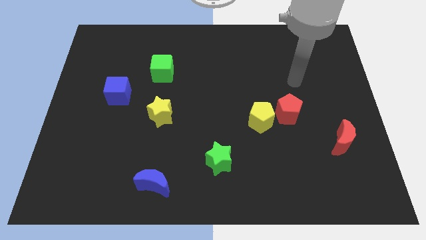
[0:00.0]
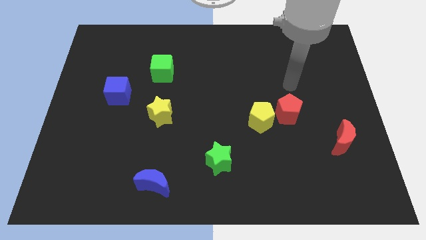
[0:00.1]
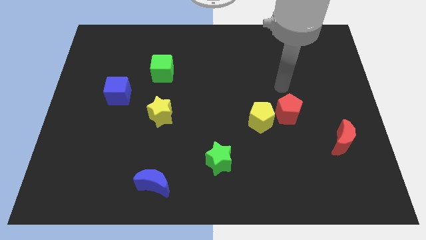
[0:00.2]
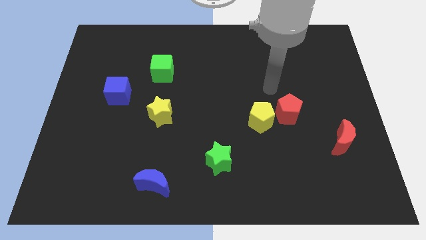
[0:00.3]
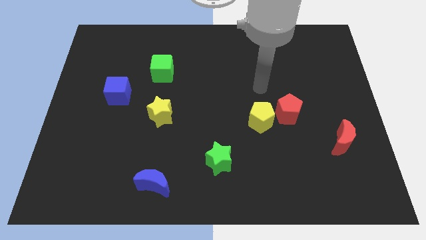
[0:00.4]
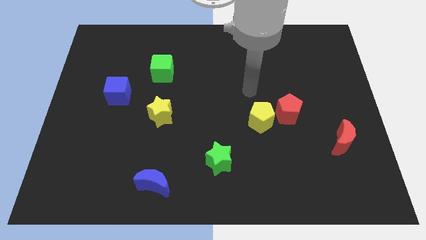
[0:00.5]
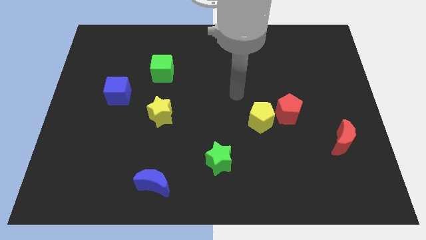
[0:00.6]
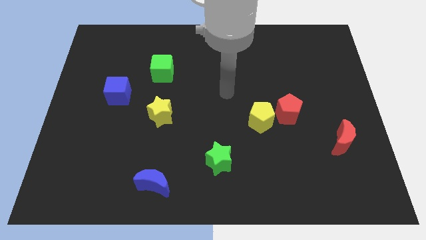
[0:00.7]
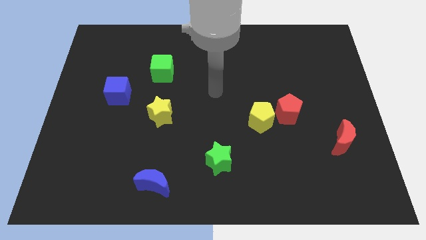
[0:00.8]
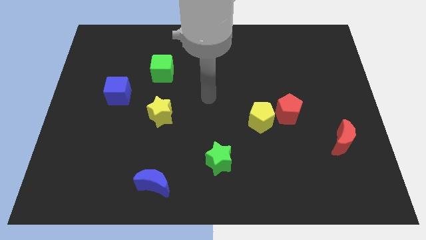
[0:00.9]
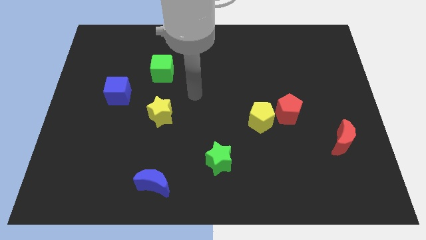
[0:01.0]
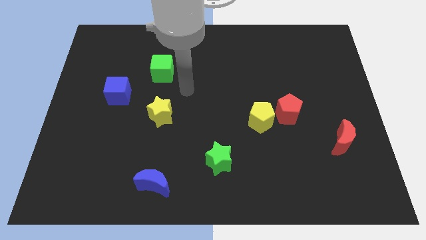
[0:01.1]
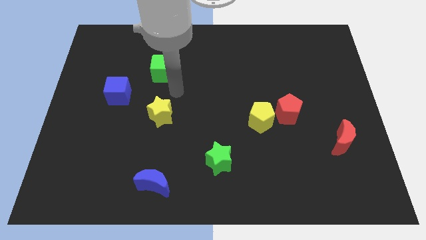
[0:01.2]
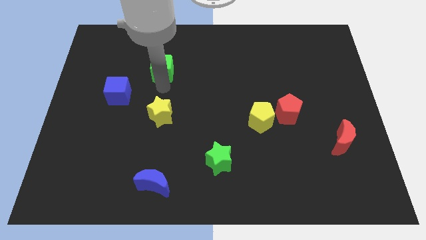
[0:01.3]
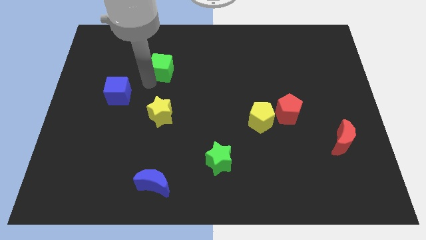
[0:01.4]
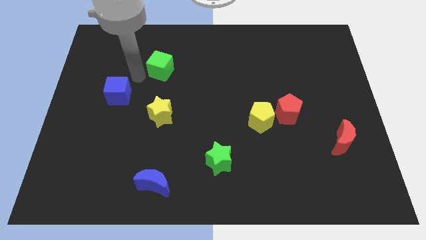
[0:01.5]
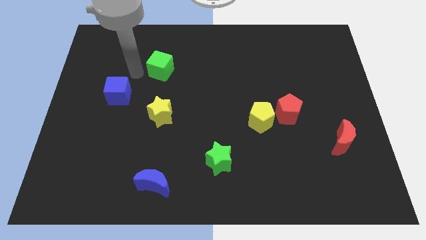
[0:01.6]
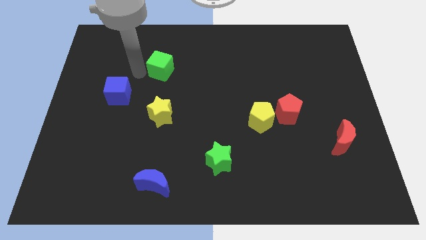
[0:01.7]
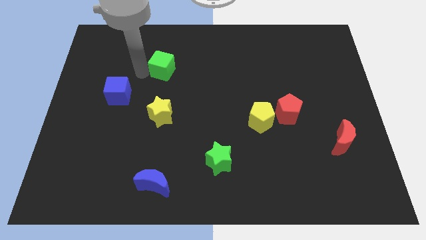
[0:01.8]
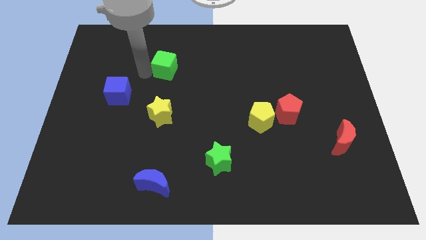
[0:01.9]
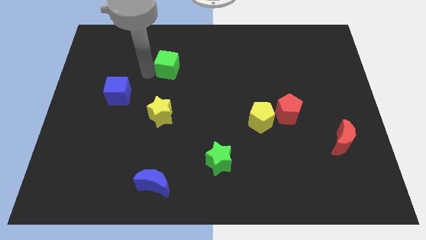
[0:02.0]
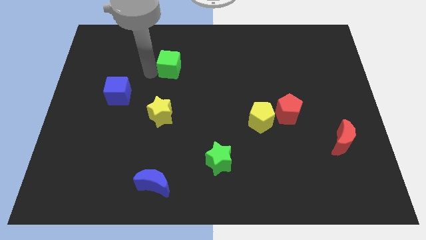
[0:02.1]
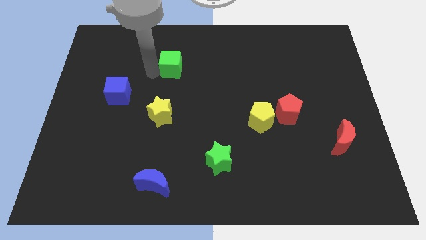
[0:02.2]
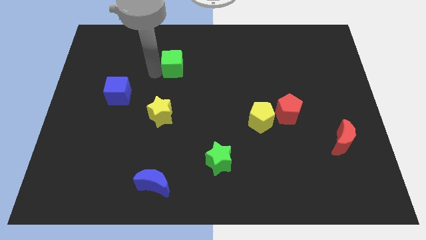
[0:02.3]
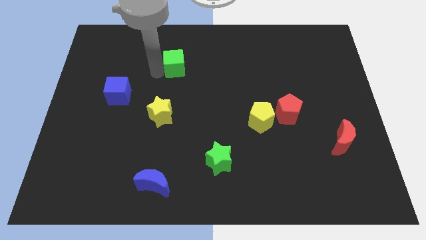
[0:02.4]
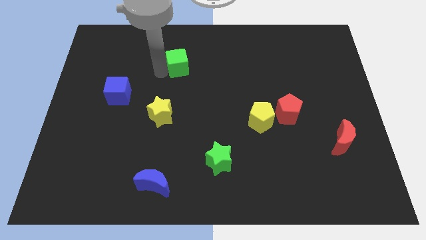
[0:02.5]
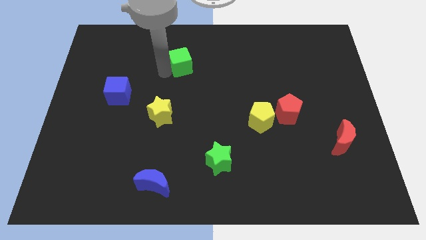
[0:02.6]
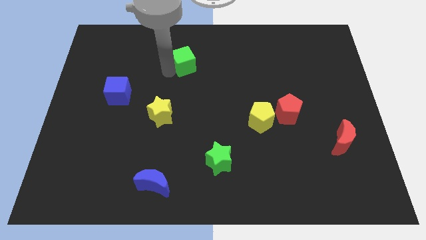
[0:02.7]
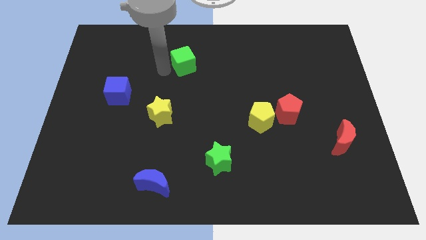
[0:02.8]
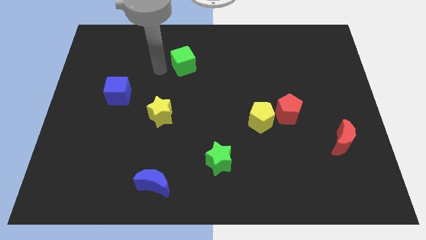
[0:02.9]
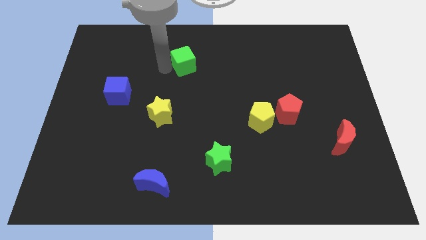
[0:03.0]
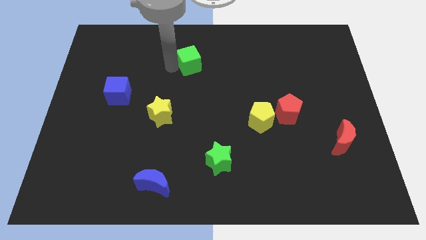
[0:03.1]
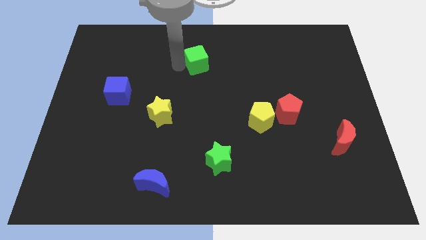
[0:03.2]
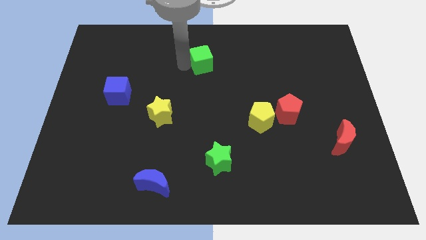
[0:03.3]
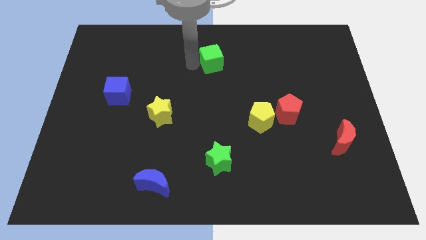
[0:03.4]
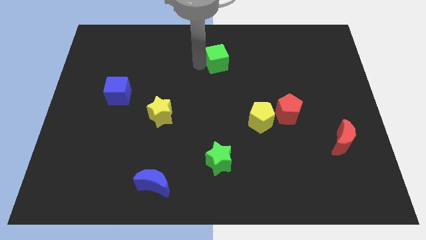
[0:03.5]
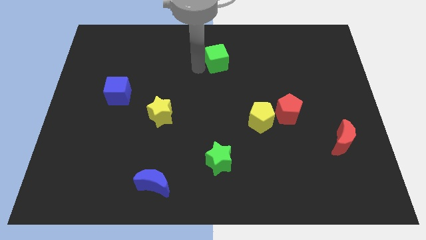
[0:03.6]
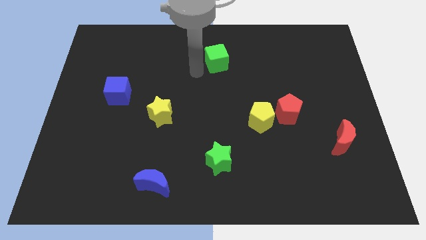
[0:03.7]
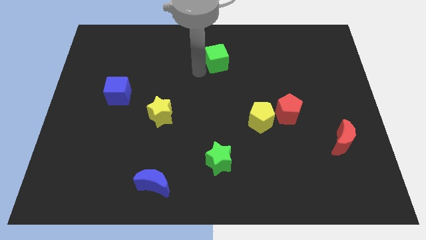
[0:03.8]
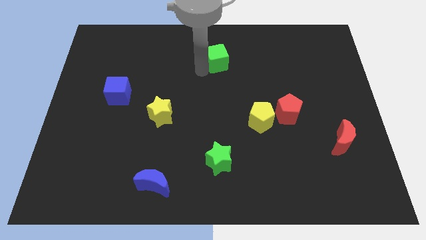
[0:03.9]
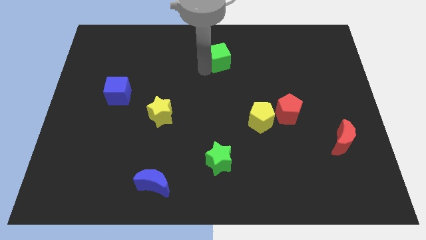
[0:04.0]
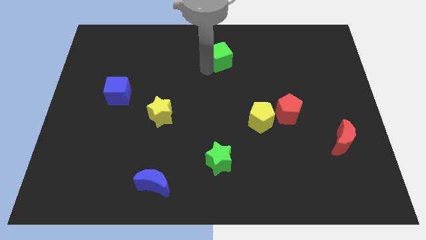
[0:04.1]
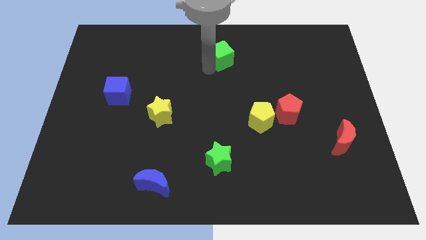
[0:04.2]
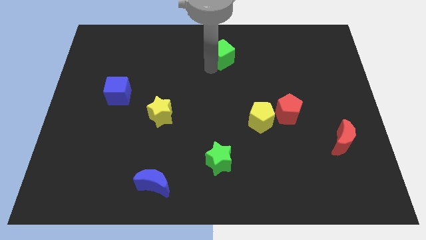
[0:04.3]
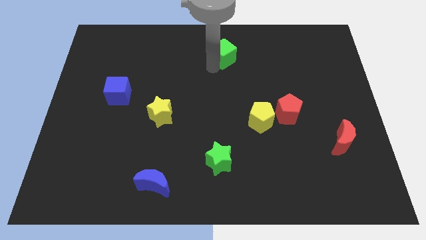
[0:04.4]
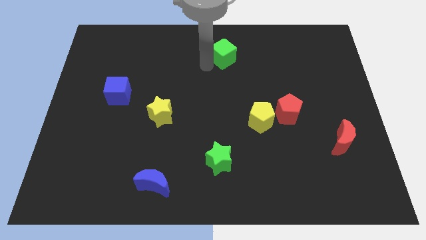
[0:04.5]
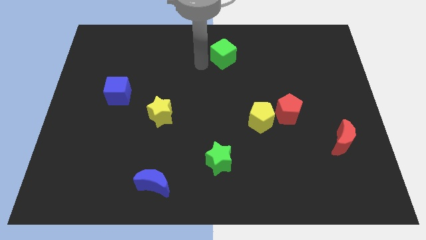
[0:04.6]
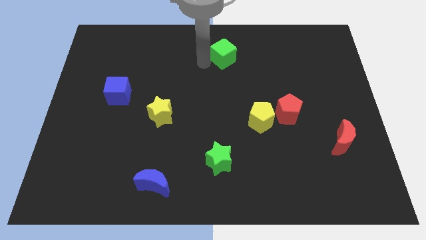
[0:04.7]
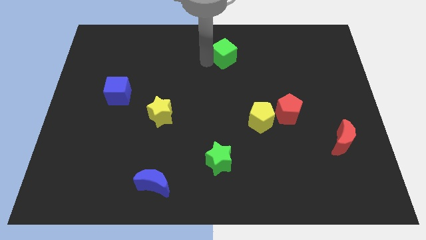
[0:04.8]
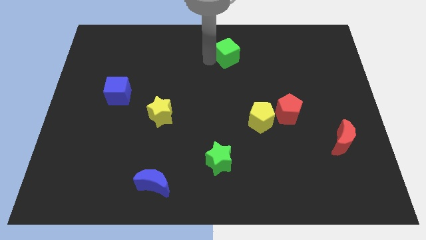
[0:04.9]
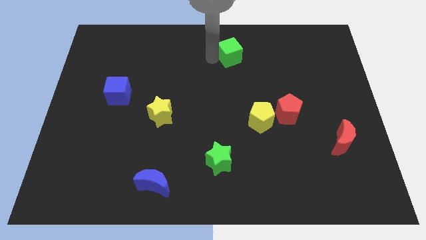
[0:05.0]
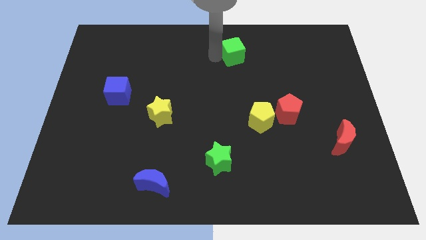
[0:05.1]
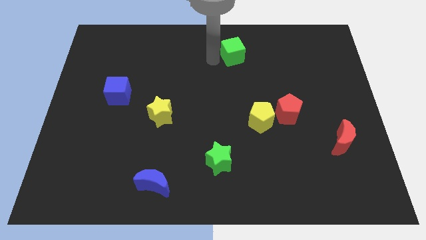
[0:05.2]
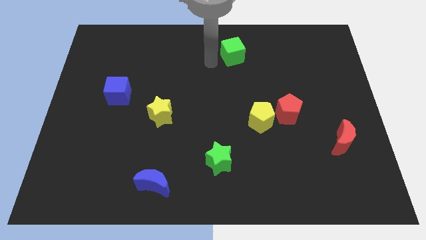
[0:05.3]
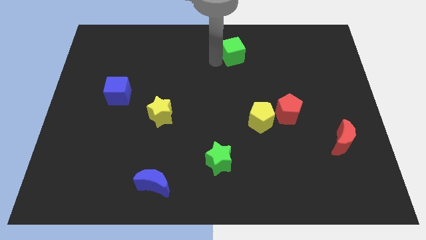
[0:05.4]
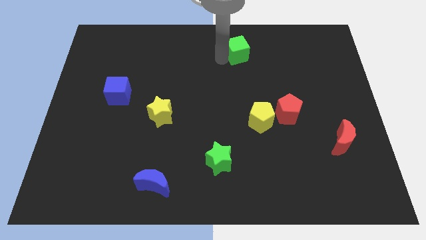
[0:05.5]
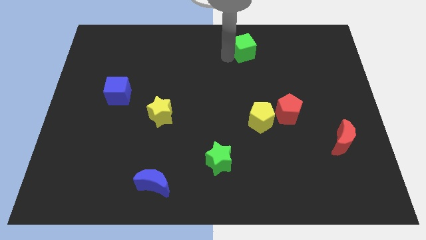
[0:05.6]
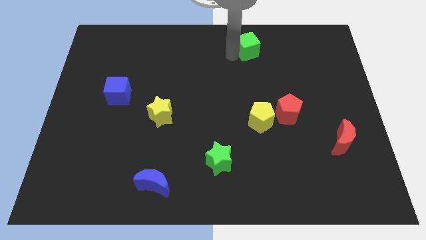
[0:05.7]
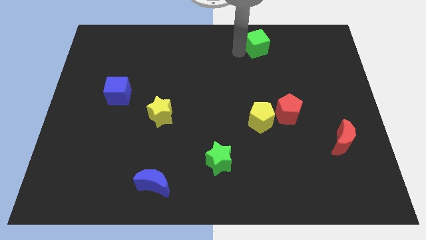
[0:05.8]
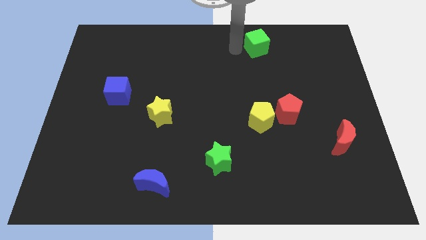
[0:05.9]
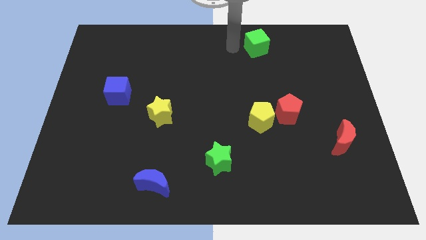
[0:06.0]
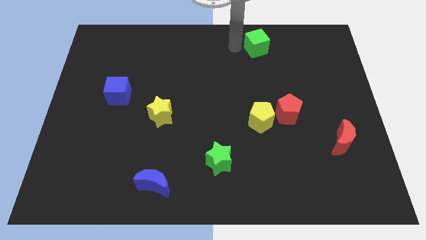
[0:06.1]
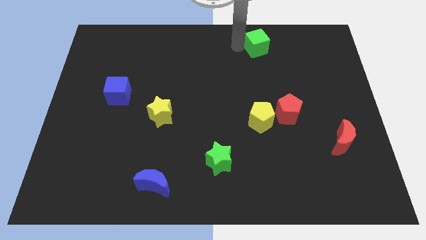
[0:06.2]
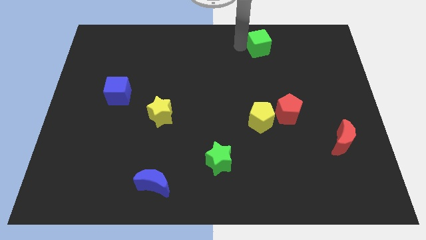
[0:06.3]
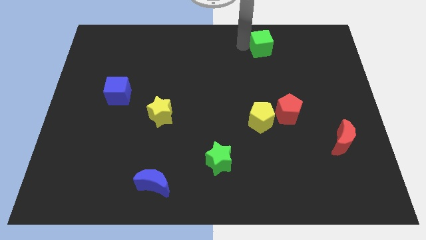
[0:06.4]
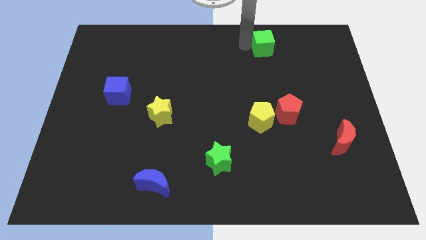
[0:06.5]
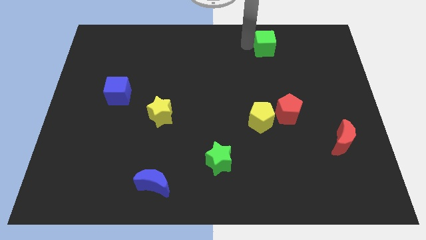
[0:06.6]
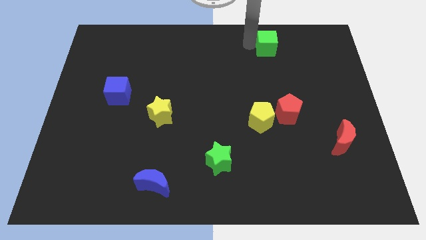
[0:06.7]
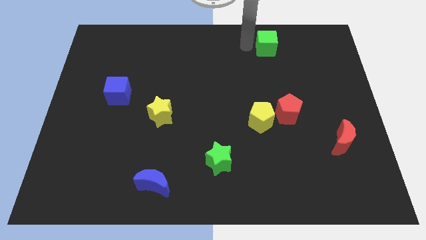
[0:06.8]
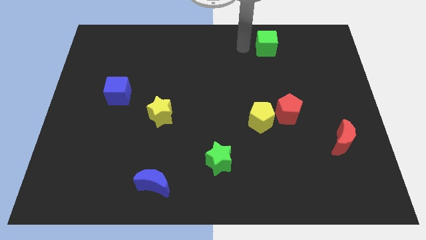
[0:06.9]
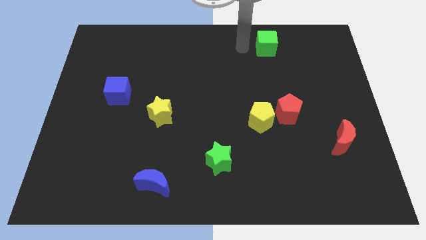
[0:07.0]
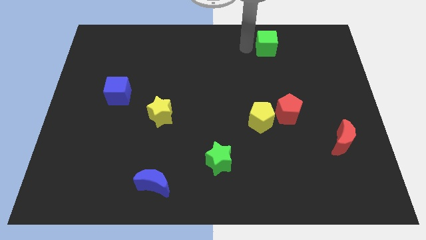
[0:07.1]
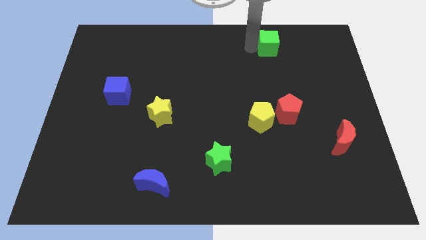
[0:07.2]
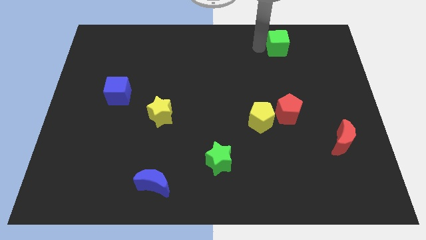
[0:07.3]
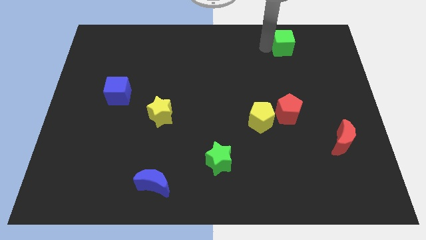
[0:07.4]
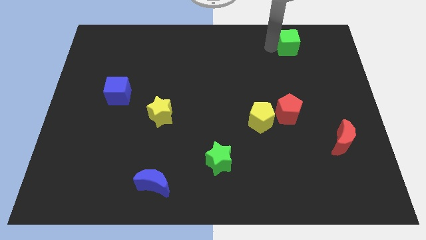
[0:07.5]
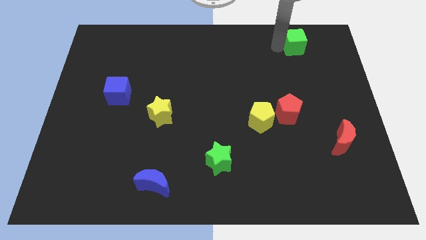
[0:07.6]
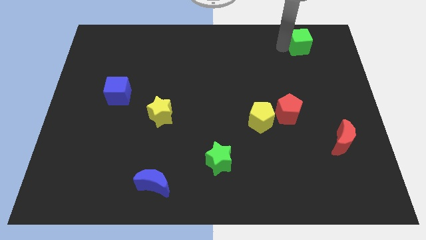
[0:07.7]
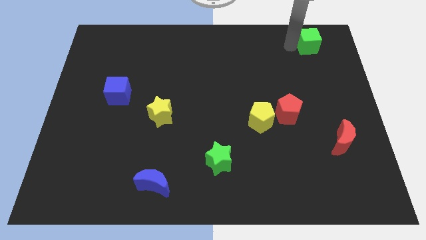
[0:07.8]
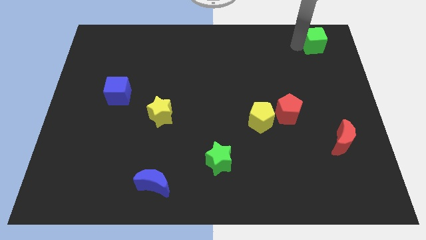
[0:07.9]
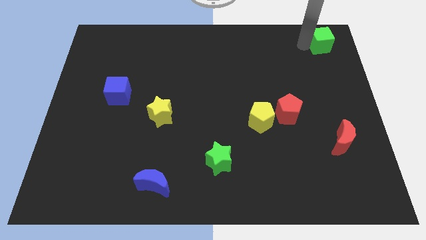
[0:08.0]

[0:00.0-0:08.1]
put the green cube to the top right corner

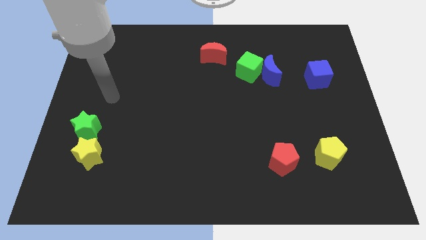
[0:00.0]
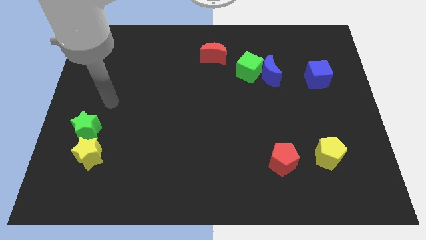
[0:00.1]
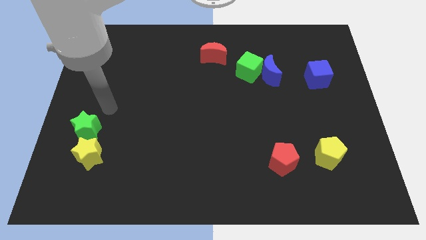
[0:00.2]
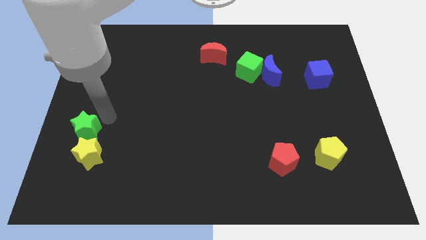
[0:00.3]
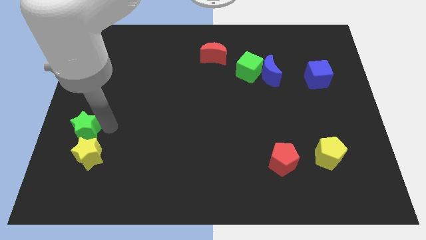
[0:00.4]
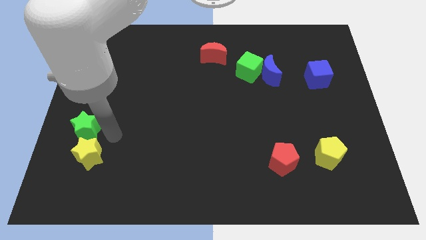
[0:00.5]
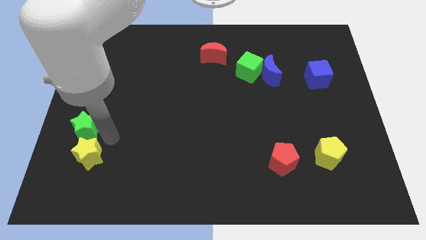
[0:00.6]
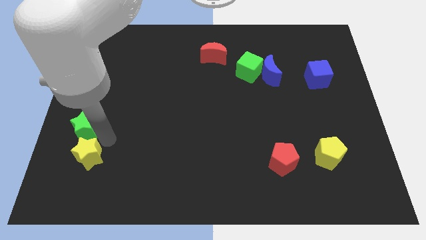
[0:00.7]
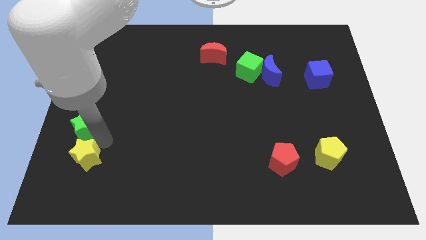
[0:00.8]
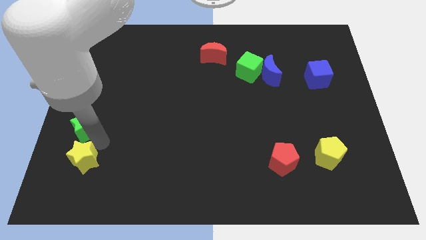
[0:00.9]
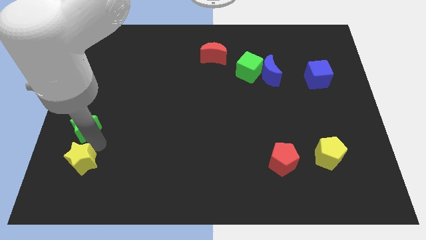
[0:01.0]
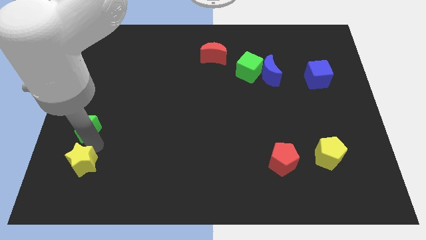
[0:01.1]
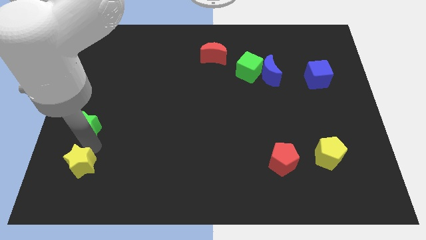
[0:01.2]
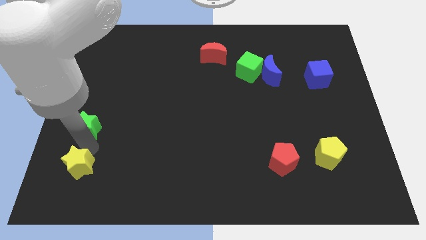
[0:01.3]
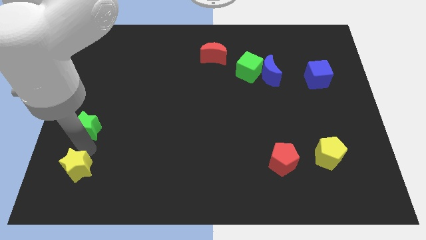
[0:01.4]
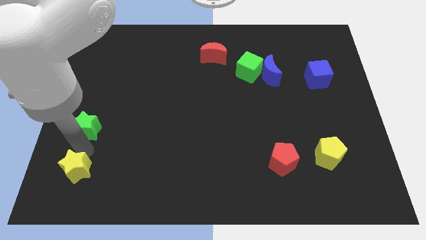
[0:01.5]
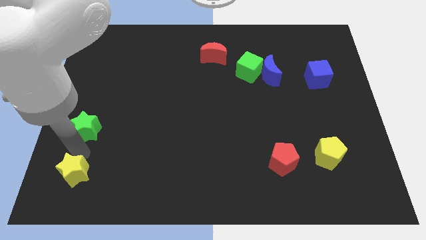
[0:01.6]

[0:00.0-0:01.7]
slide the yellow star to the lower left corner
